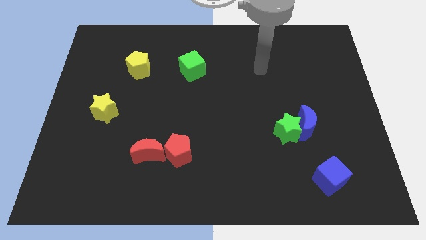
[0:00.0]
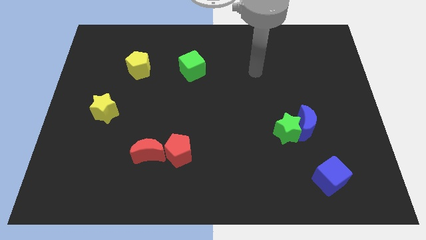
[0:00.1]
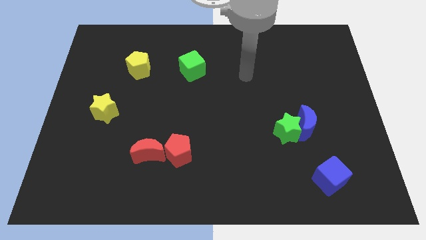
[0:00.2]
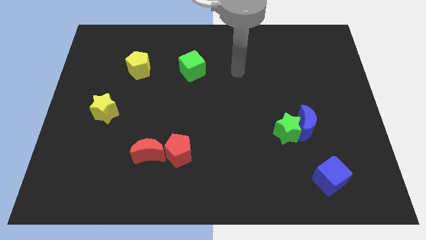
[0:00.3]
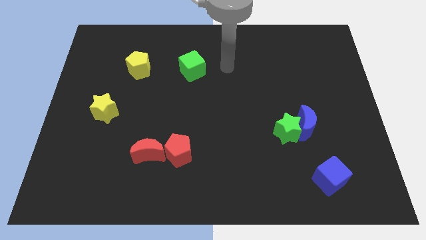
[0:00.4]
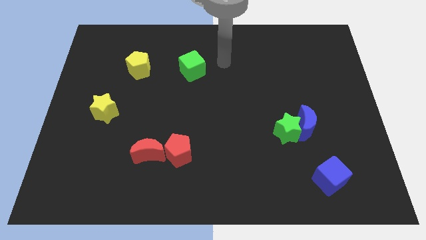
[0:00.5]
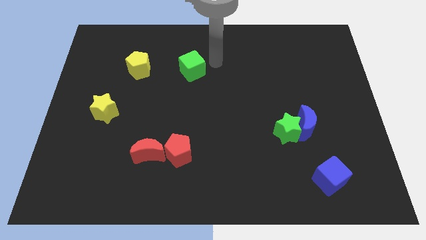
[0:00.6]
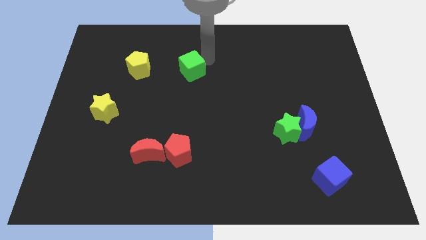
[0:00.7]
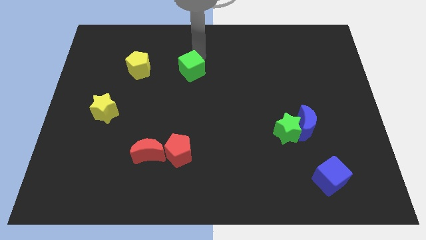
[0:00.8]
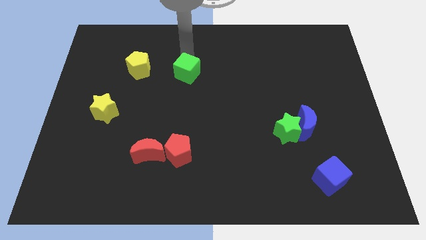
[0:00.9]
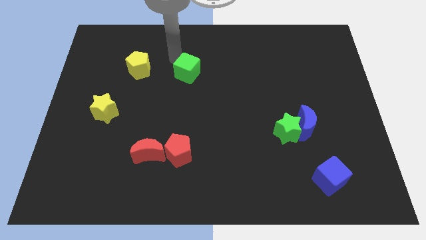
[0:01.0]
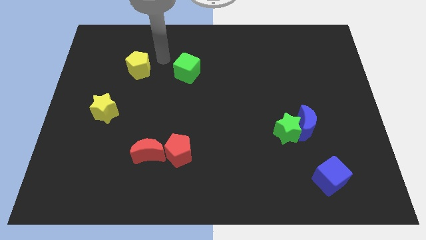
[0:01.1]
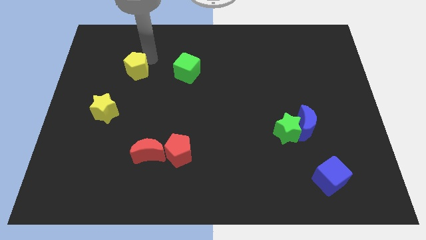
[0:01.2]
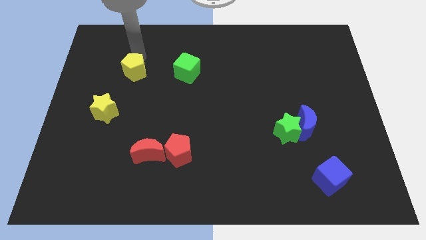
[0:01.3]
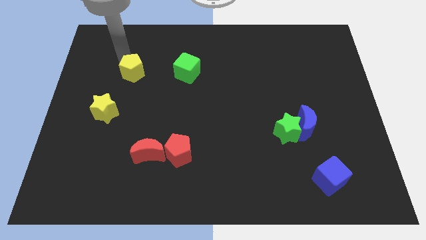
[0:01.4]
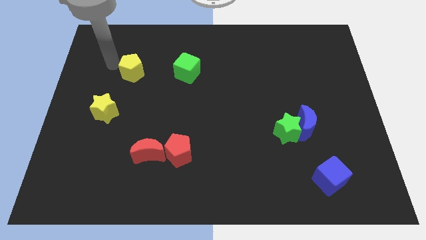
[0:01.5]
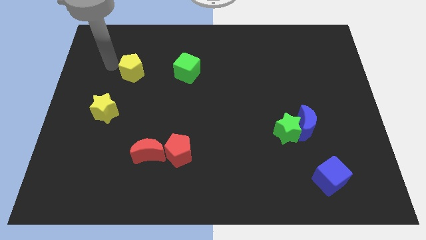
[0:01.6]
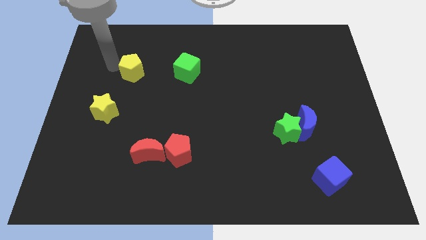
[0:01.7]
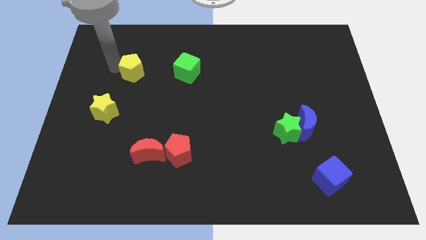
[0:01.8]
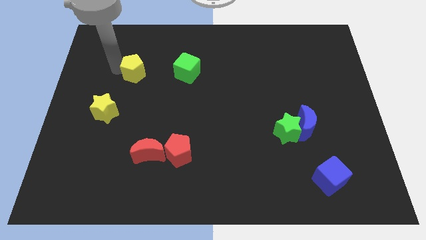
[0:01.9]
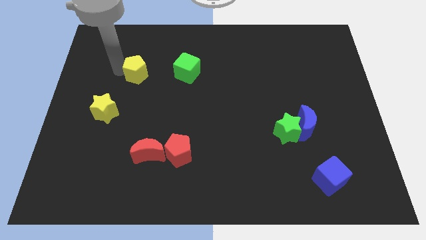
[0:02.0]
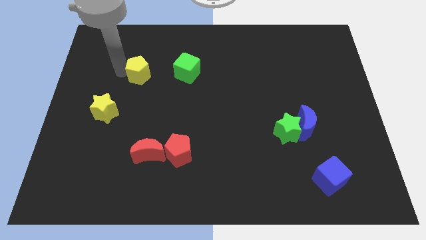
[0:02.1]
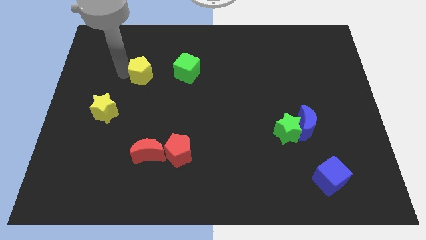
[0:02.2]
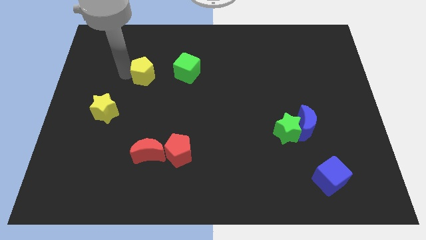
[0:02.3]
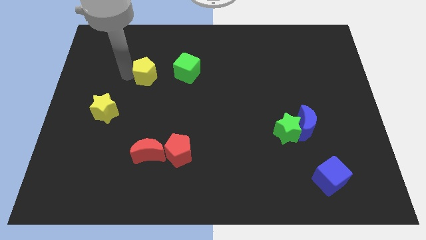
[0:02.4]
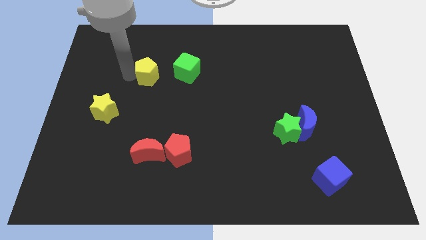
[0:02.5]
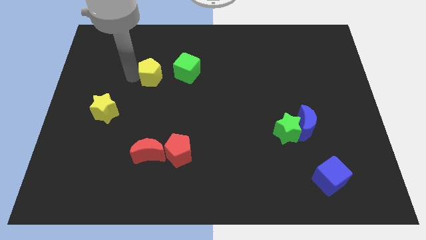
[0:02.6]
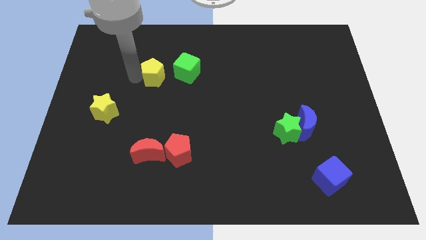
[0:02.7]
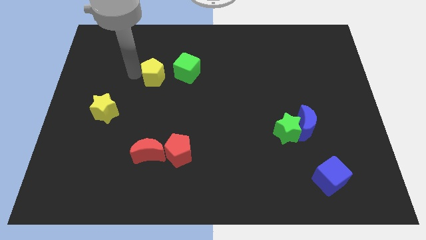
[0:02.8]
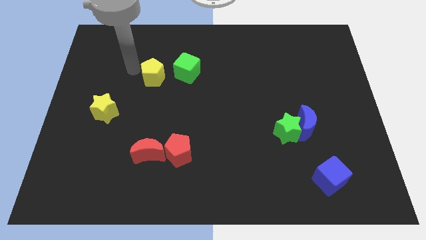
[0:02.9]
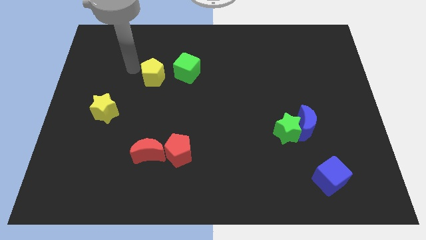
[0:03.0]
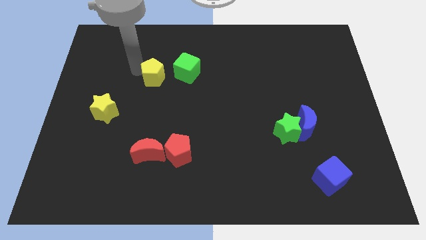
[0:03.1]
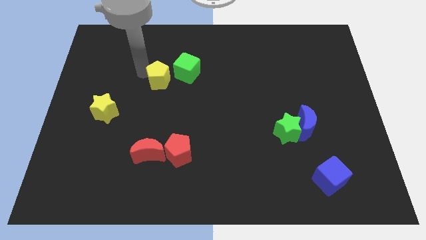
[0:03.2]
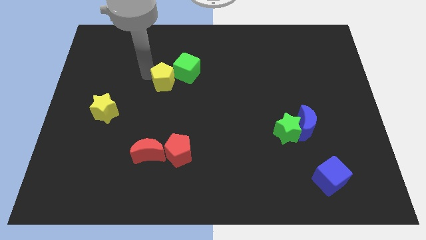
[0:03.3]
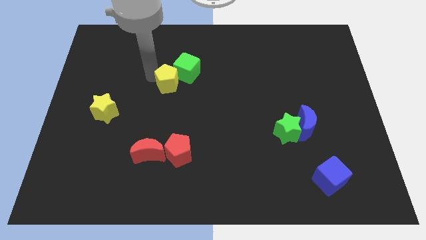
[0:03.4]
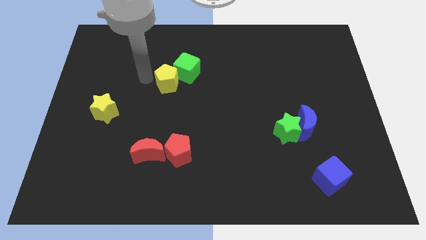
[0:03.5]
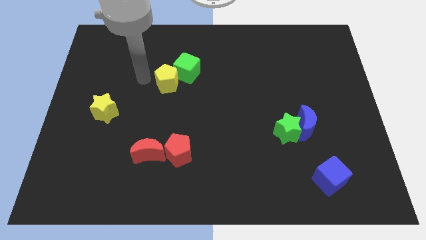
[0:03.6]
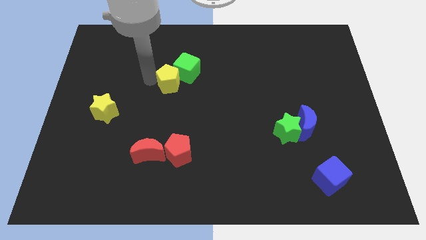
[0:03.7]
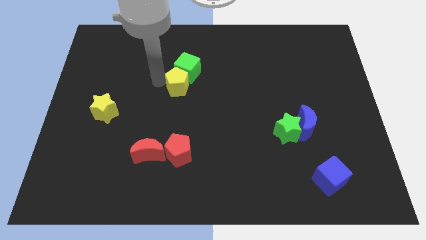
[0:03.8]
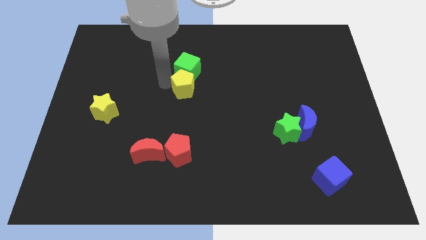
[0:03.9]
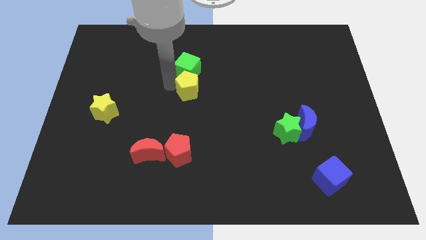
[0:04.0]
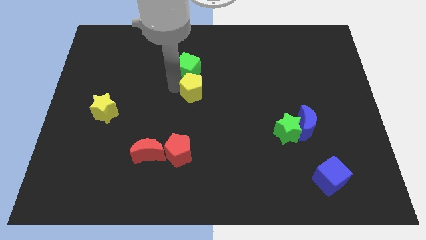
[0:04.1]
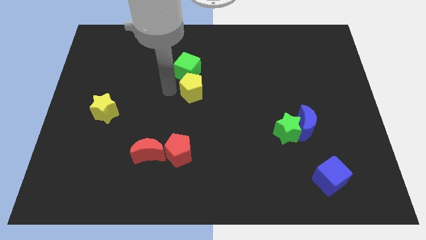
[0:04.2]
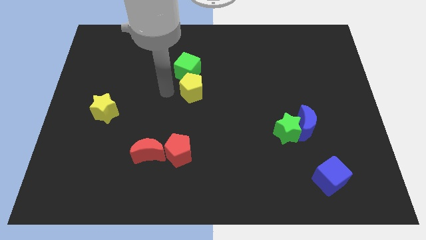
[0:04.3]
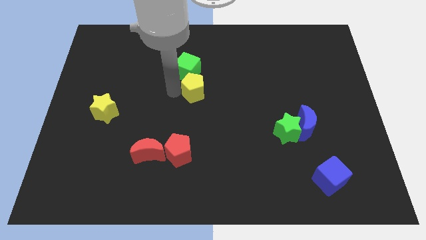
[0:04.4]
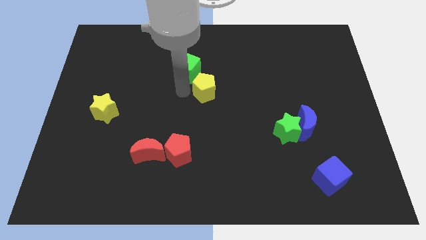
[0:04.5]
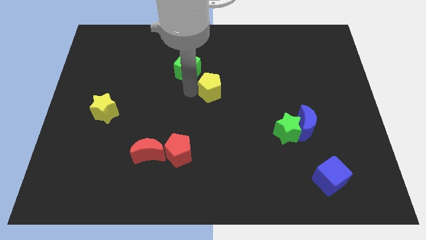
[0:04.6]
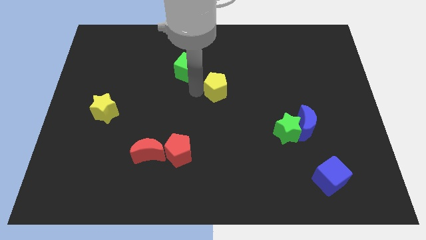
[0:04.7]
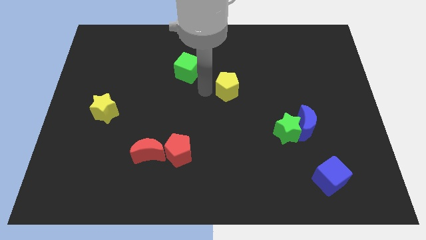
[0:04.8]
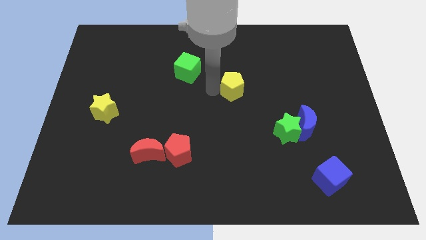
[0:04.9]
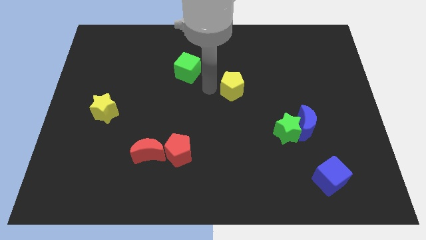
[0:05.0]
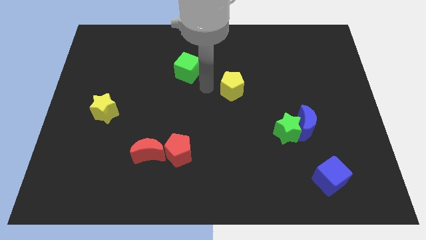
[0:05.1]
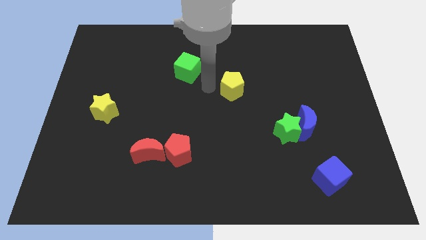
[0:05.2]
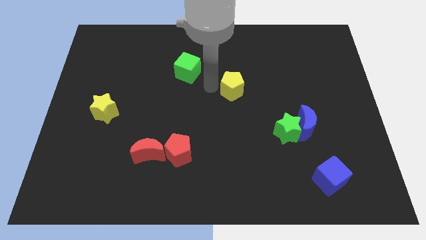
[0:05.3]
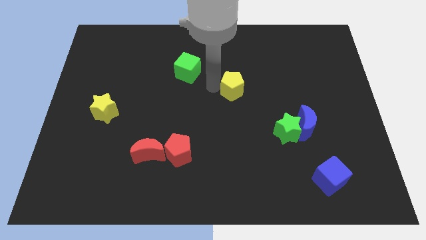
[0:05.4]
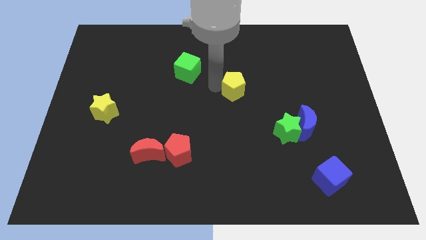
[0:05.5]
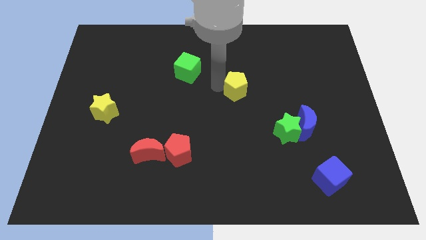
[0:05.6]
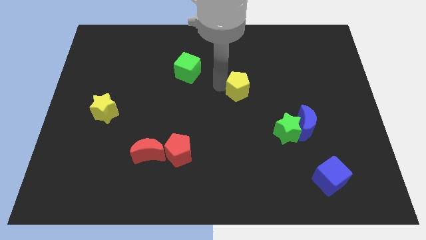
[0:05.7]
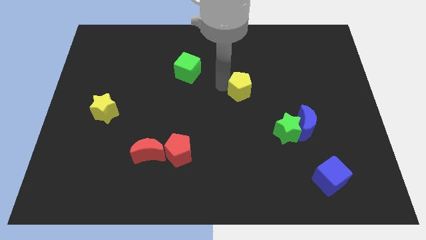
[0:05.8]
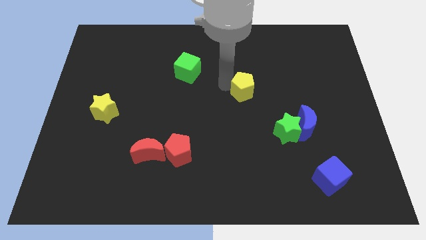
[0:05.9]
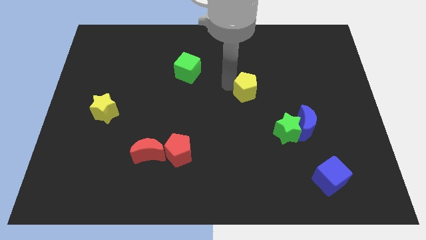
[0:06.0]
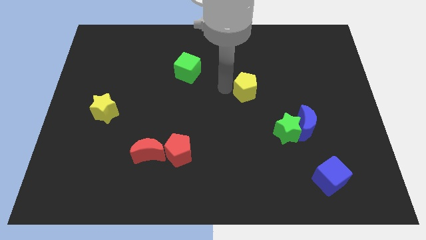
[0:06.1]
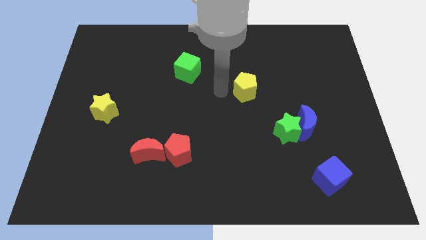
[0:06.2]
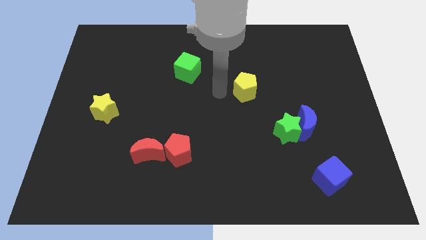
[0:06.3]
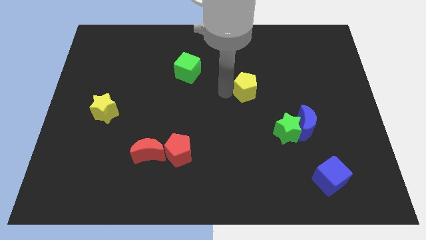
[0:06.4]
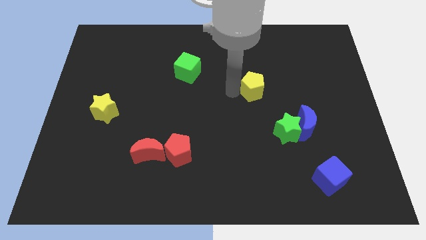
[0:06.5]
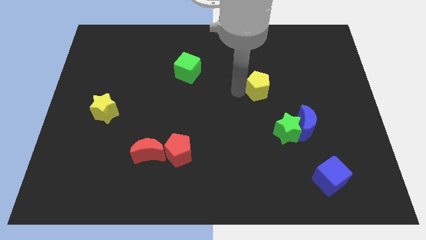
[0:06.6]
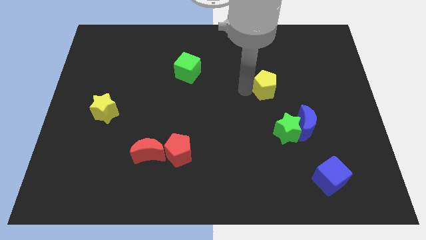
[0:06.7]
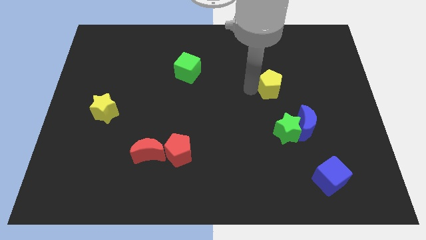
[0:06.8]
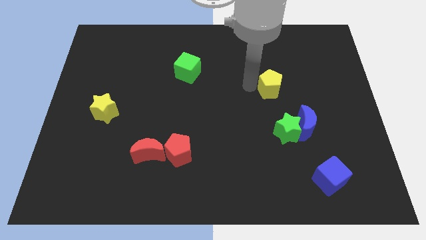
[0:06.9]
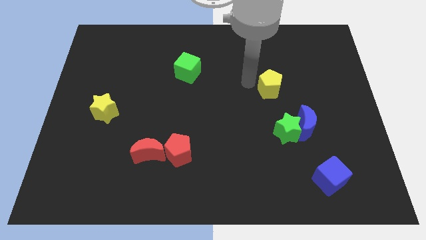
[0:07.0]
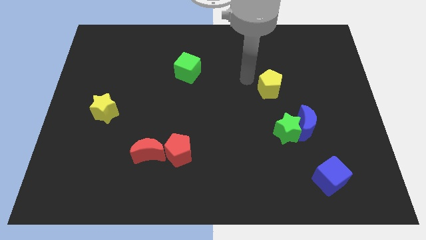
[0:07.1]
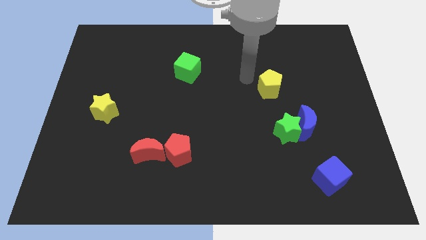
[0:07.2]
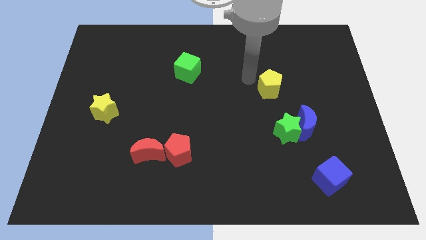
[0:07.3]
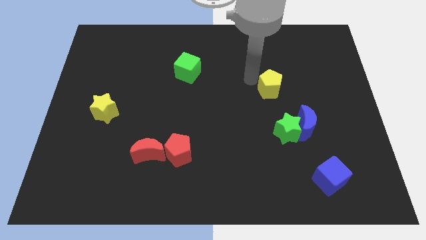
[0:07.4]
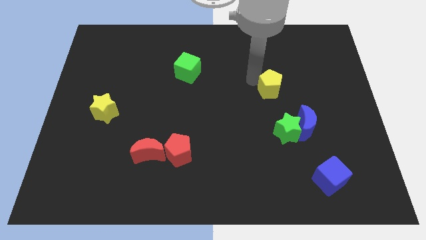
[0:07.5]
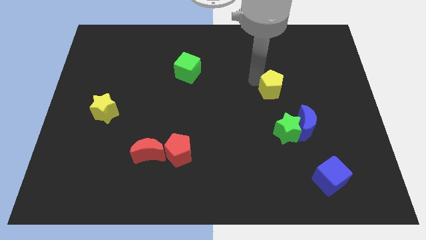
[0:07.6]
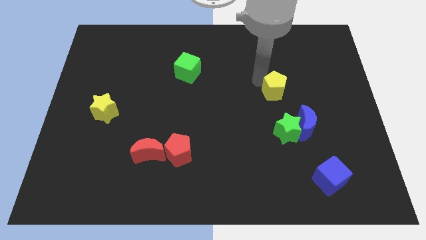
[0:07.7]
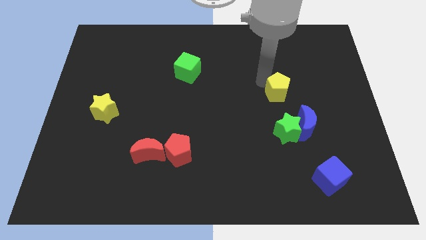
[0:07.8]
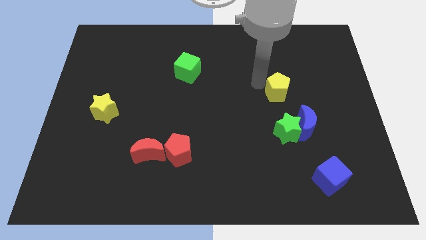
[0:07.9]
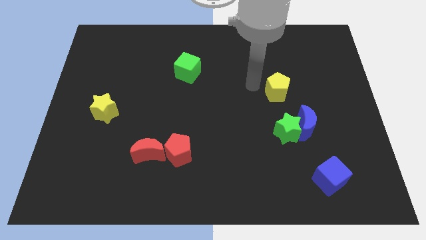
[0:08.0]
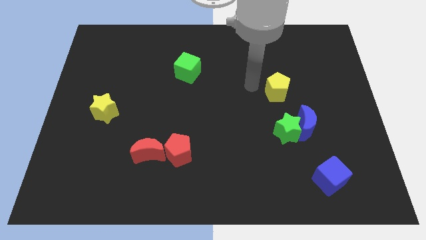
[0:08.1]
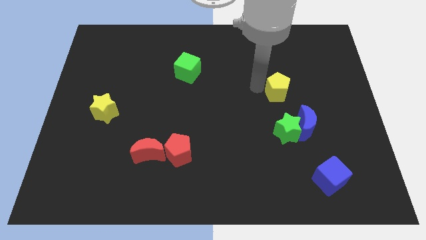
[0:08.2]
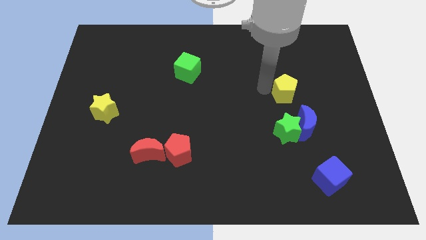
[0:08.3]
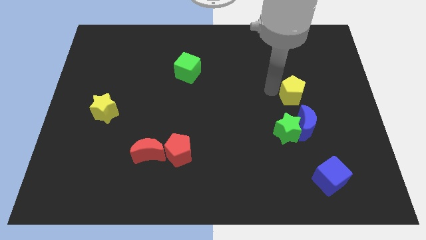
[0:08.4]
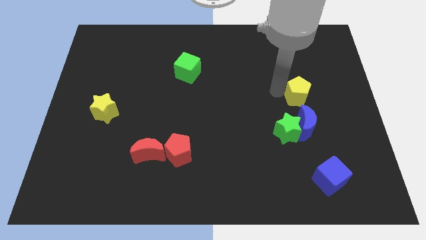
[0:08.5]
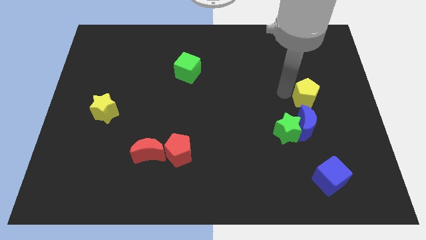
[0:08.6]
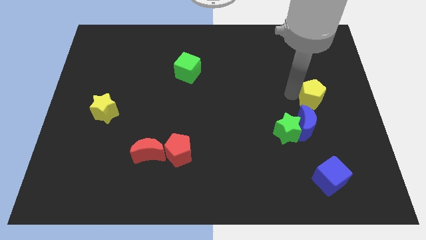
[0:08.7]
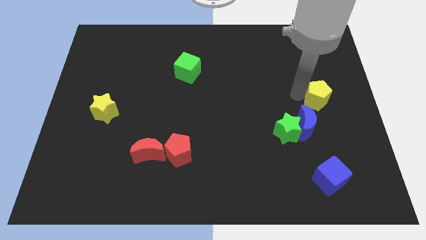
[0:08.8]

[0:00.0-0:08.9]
push the yellow pentagon to the right side
